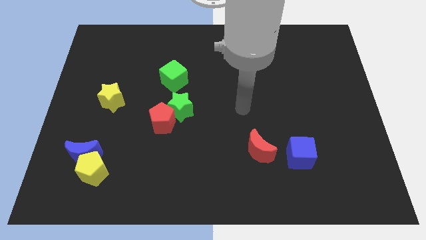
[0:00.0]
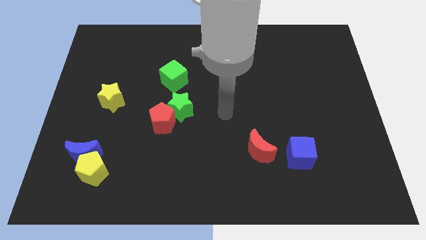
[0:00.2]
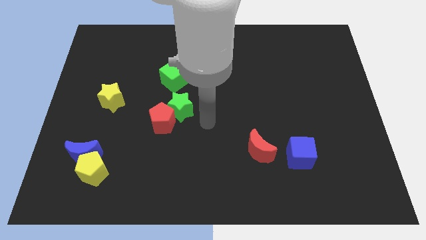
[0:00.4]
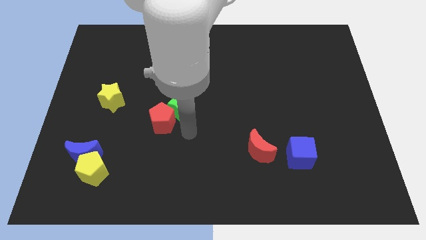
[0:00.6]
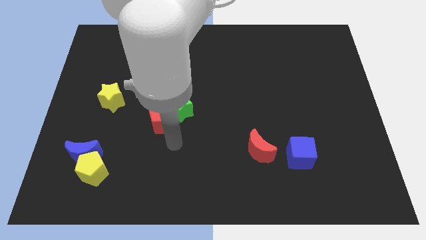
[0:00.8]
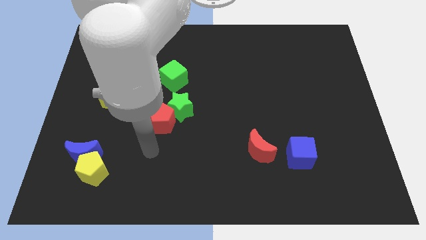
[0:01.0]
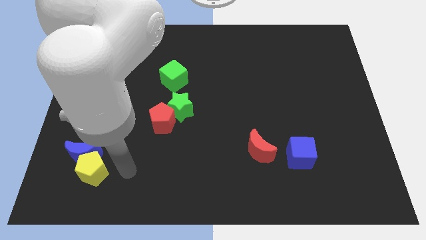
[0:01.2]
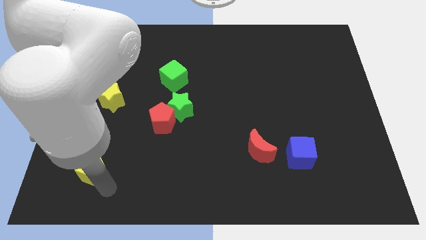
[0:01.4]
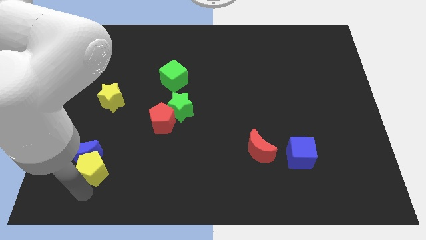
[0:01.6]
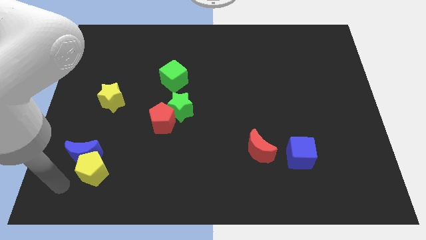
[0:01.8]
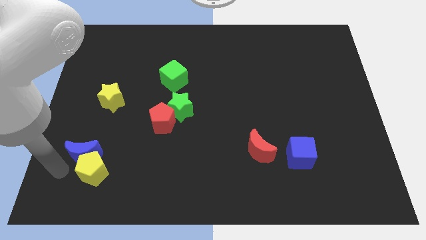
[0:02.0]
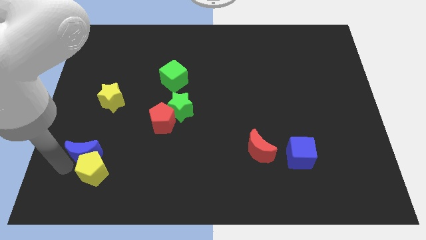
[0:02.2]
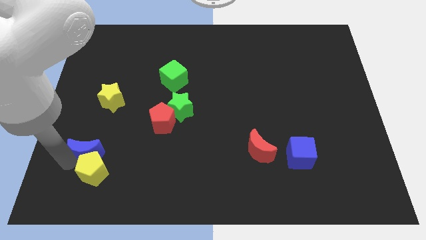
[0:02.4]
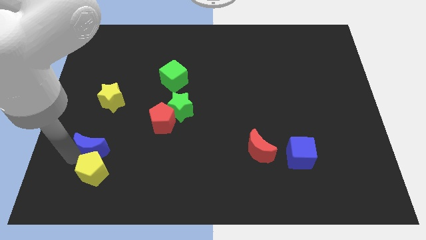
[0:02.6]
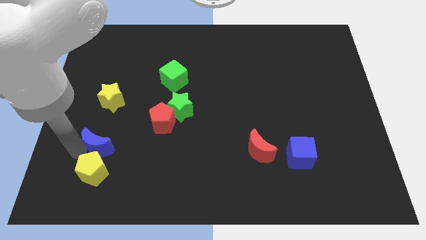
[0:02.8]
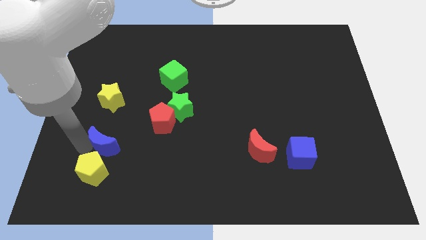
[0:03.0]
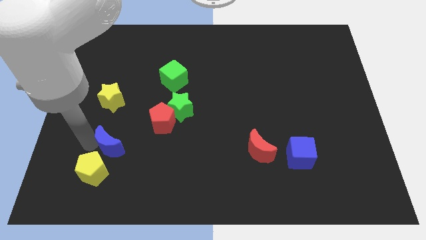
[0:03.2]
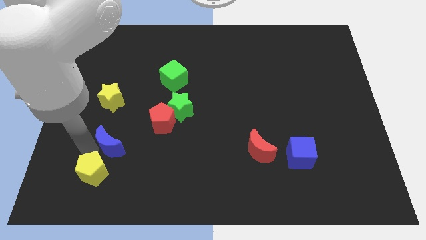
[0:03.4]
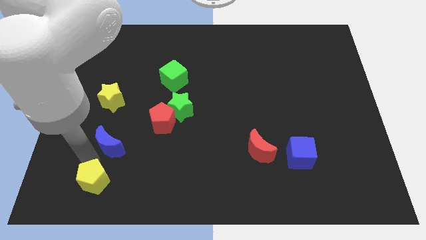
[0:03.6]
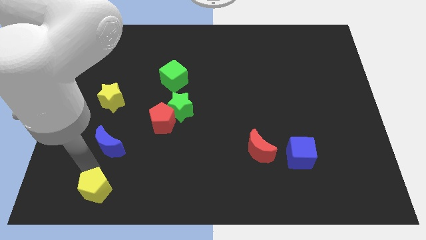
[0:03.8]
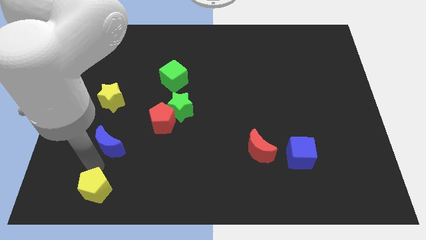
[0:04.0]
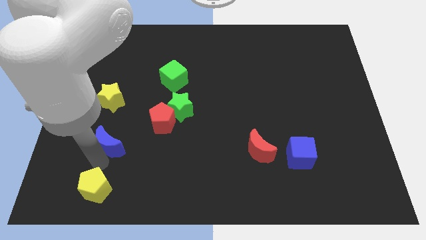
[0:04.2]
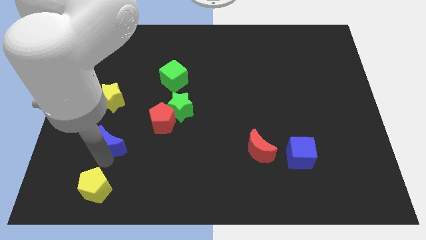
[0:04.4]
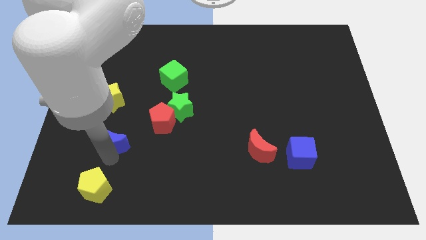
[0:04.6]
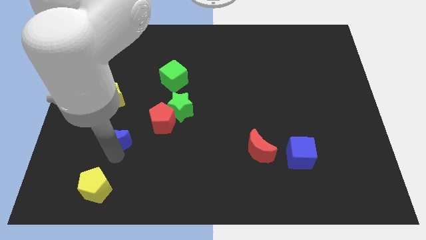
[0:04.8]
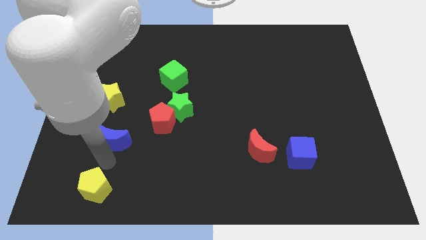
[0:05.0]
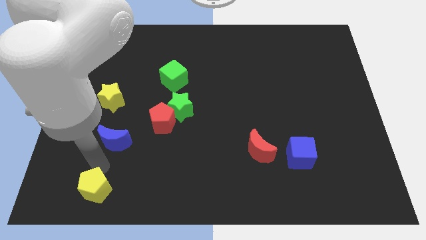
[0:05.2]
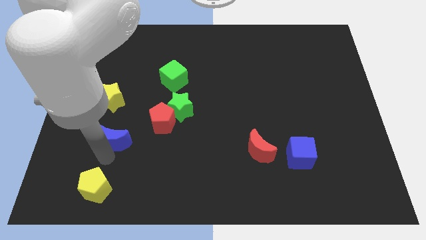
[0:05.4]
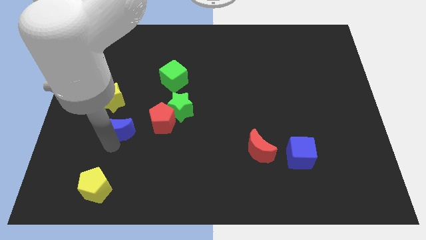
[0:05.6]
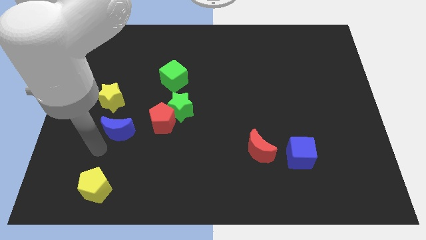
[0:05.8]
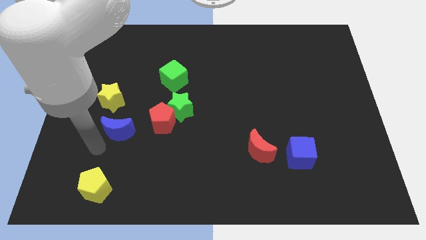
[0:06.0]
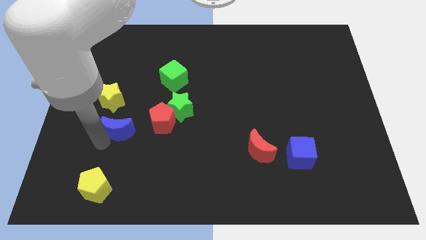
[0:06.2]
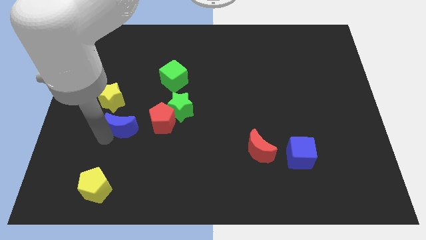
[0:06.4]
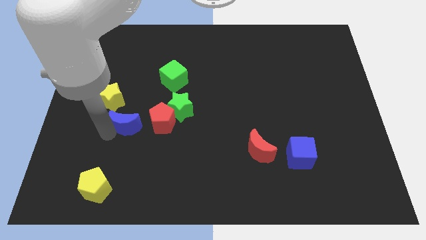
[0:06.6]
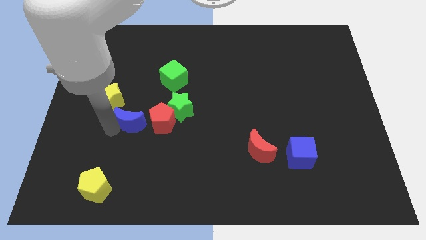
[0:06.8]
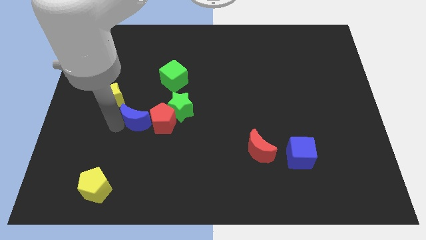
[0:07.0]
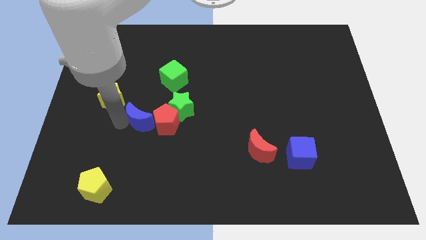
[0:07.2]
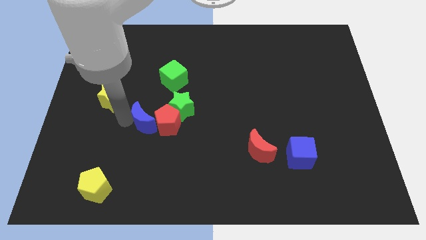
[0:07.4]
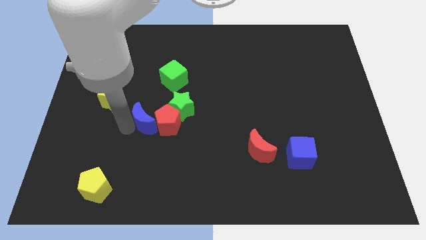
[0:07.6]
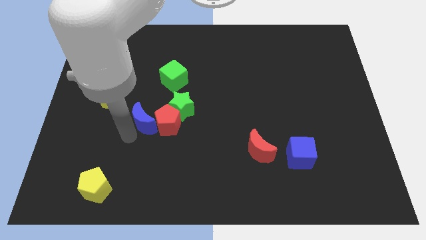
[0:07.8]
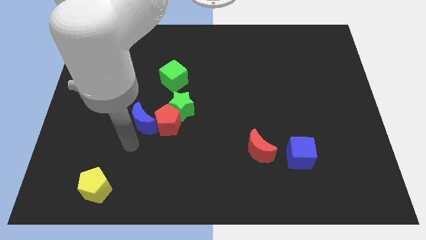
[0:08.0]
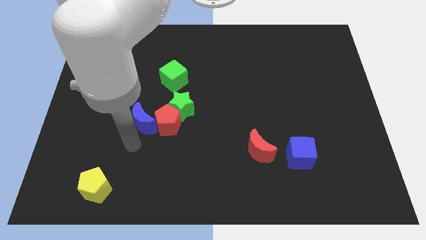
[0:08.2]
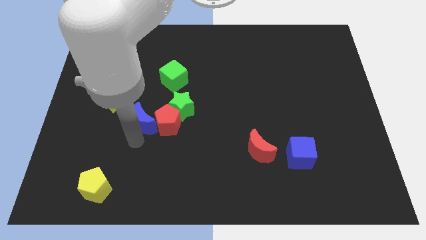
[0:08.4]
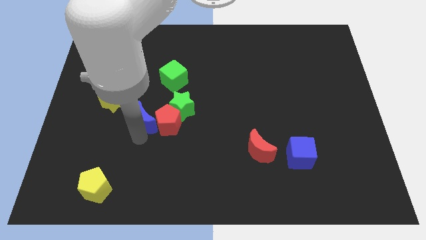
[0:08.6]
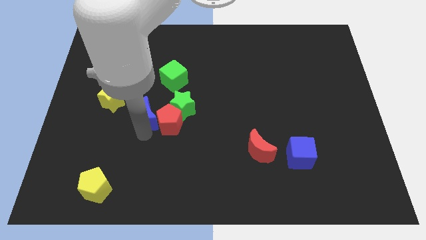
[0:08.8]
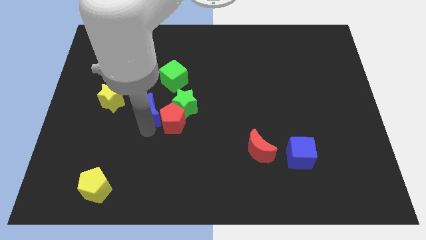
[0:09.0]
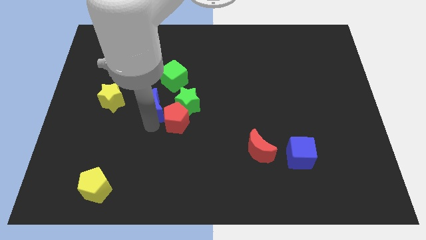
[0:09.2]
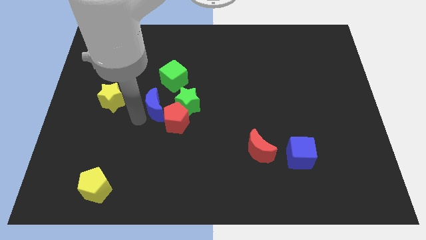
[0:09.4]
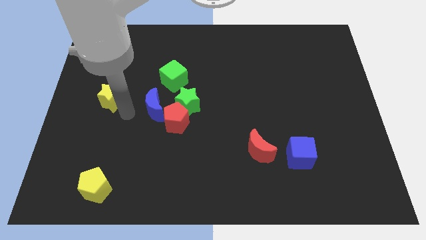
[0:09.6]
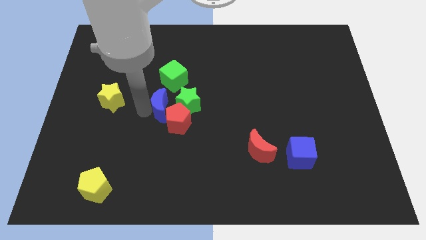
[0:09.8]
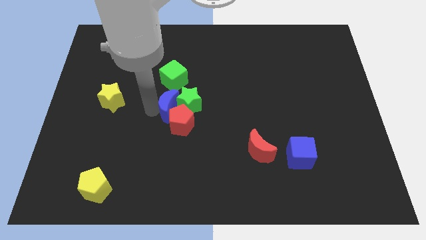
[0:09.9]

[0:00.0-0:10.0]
put the blue moon to the green star

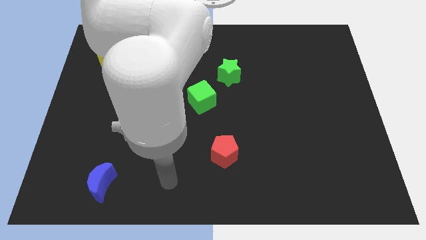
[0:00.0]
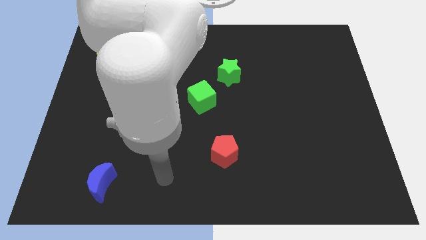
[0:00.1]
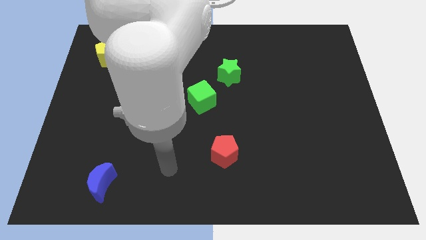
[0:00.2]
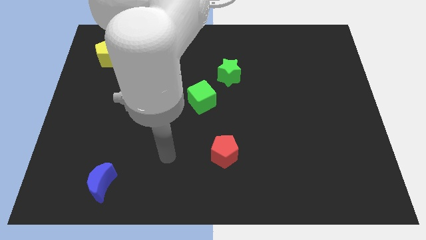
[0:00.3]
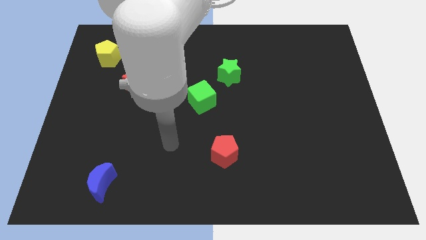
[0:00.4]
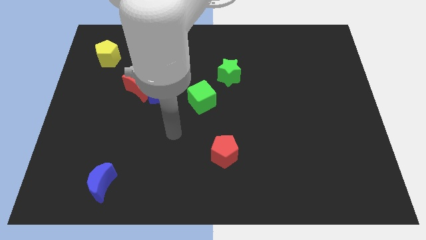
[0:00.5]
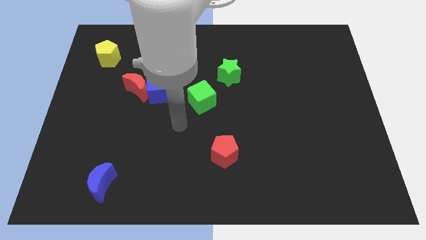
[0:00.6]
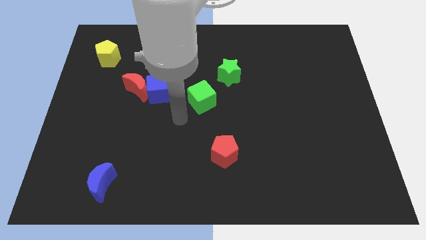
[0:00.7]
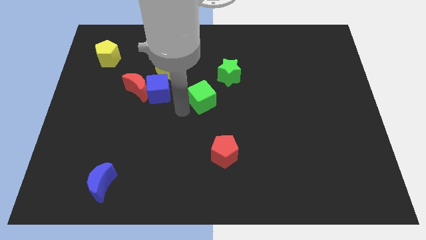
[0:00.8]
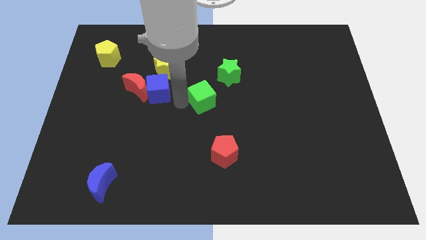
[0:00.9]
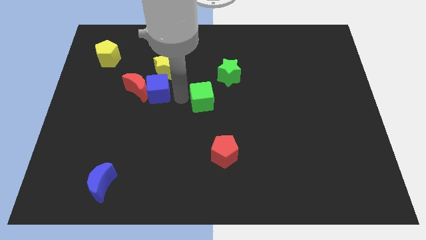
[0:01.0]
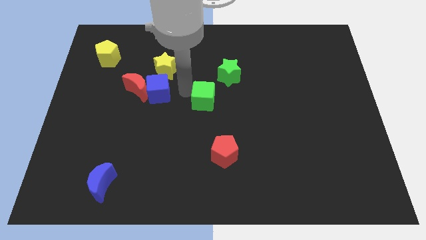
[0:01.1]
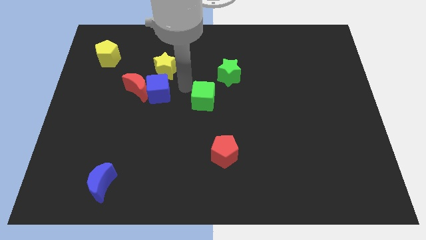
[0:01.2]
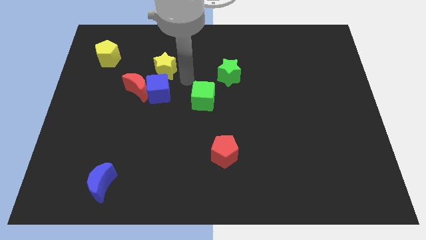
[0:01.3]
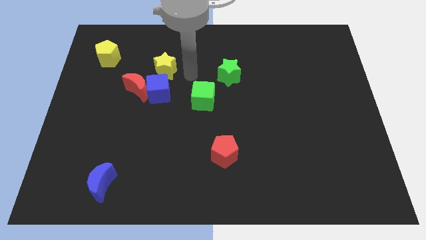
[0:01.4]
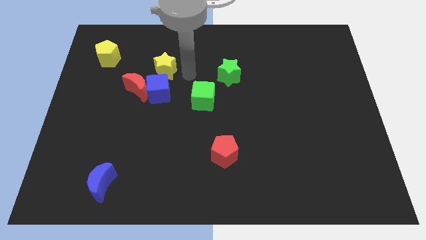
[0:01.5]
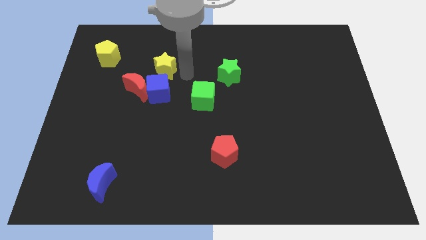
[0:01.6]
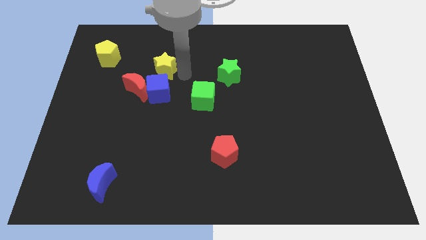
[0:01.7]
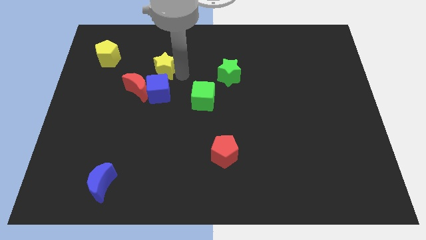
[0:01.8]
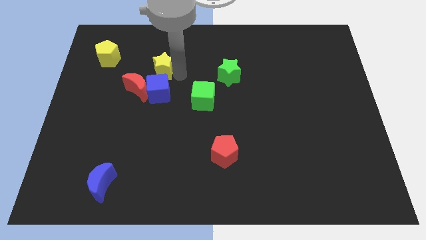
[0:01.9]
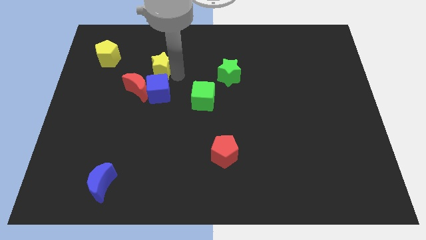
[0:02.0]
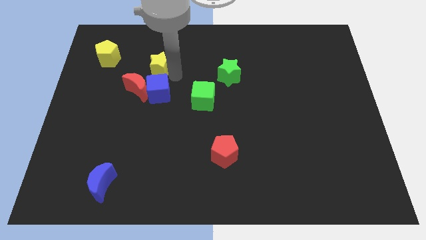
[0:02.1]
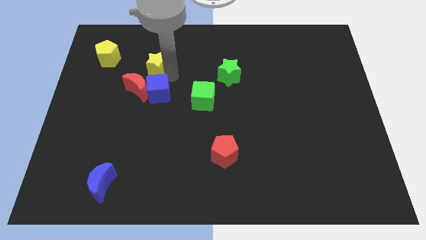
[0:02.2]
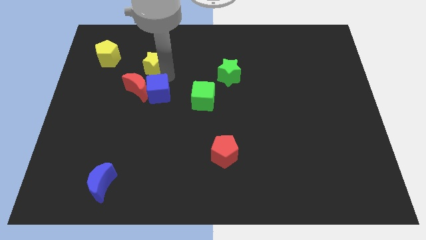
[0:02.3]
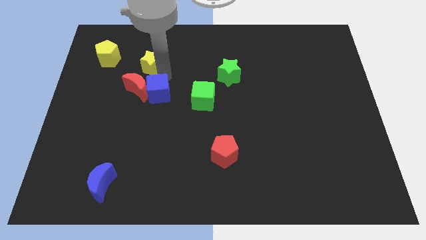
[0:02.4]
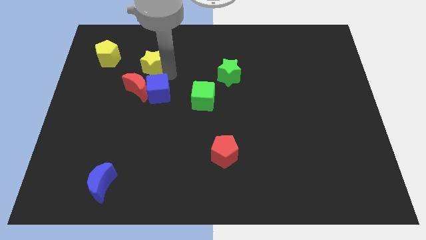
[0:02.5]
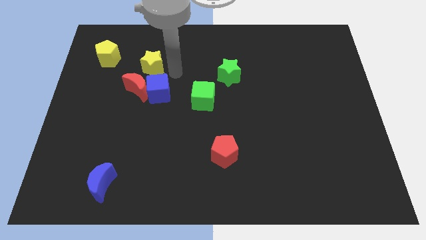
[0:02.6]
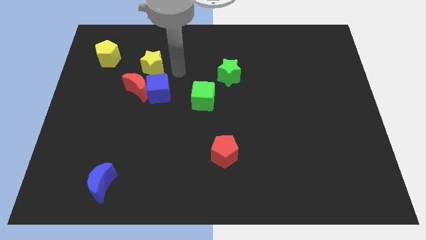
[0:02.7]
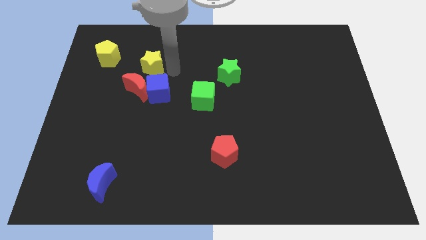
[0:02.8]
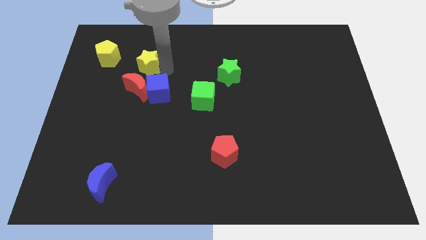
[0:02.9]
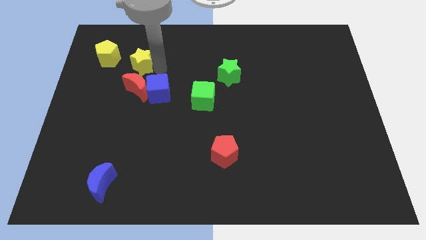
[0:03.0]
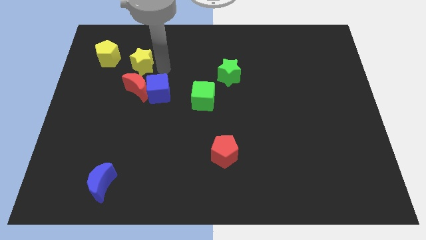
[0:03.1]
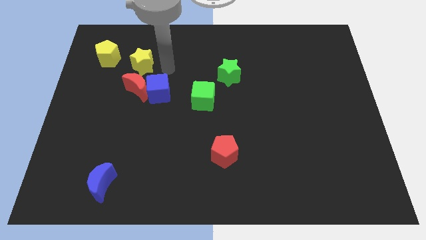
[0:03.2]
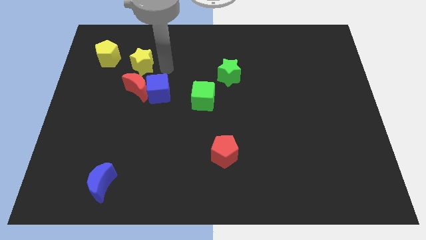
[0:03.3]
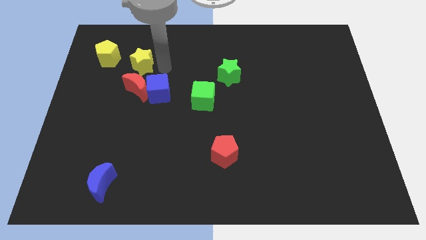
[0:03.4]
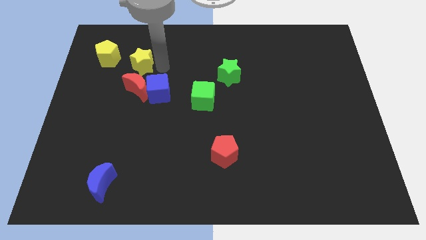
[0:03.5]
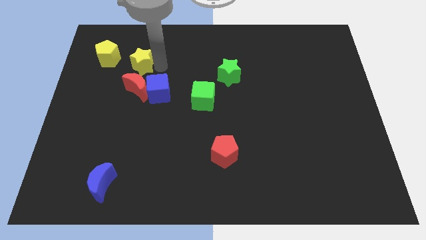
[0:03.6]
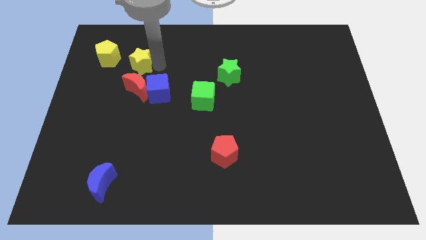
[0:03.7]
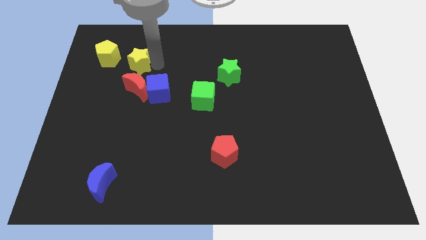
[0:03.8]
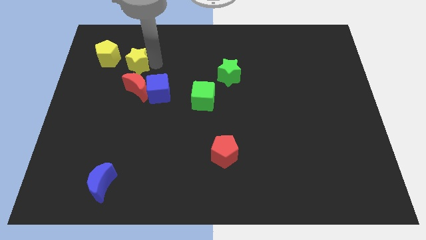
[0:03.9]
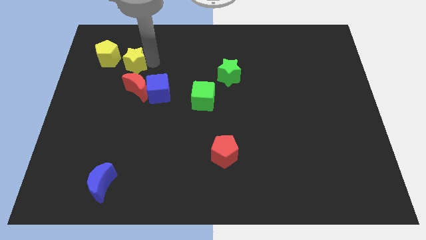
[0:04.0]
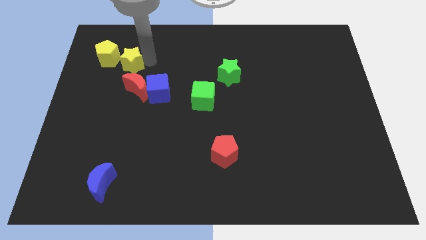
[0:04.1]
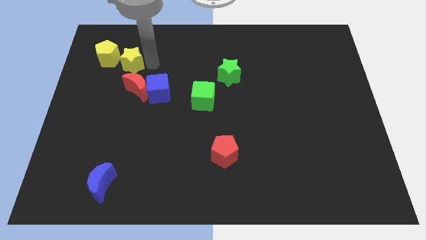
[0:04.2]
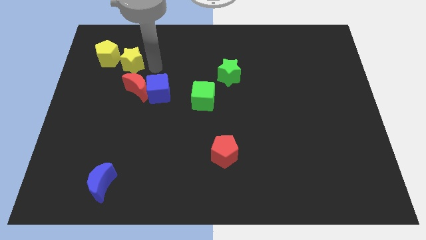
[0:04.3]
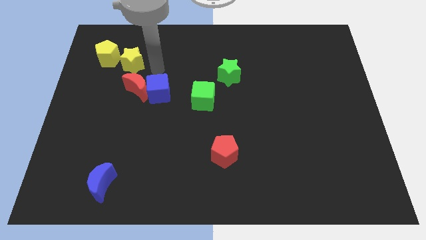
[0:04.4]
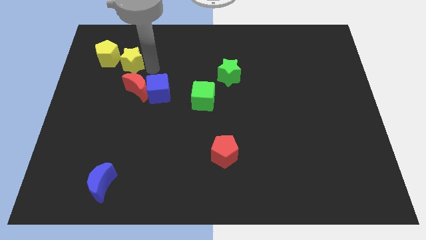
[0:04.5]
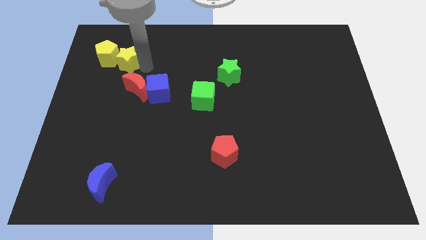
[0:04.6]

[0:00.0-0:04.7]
put the yellow star towards the yellow pentagon
